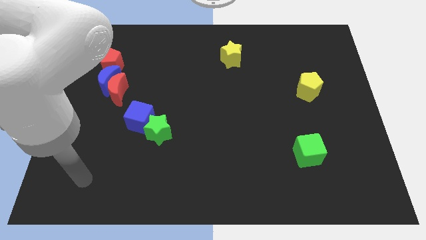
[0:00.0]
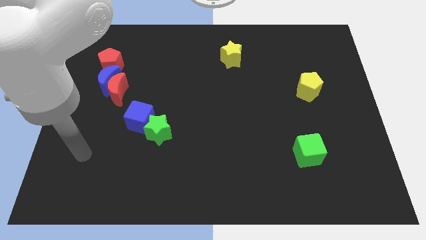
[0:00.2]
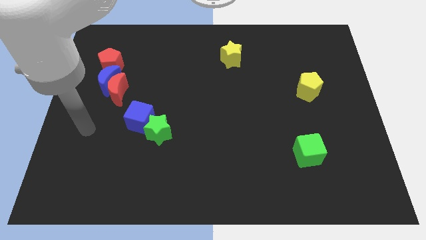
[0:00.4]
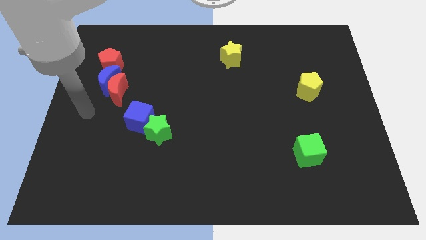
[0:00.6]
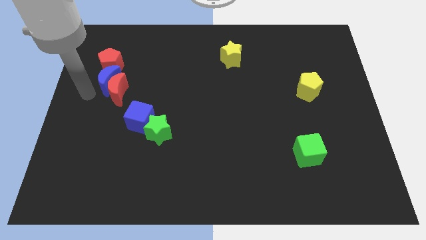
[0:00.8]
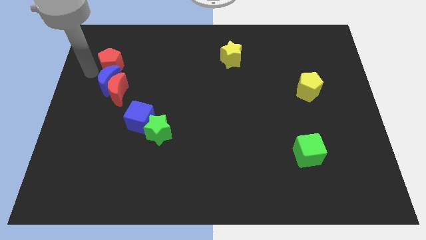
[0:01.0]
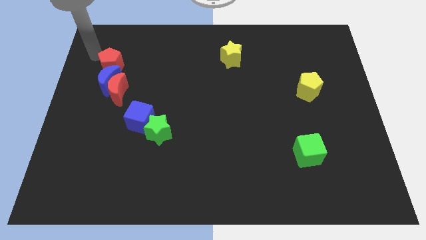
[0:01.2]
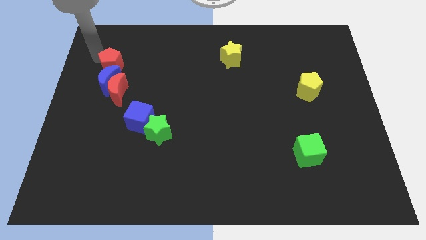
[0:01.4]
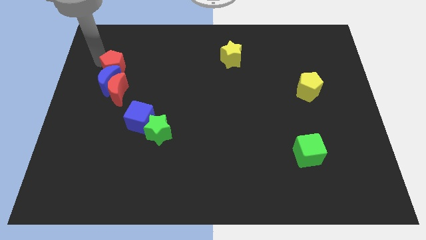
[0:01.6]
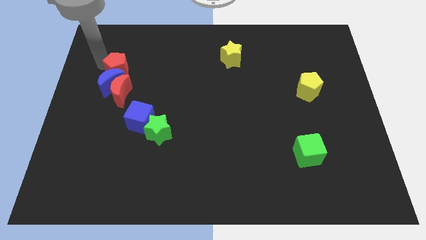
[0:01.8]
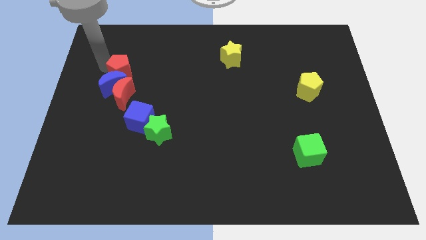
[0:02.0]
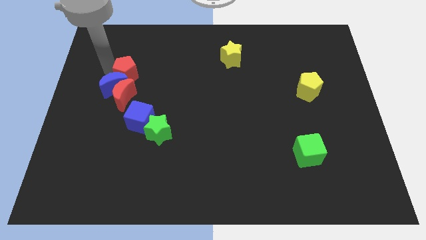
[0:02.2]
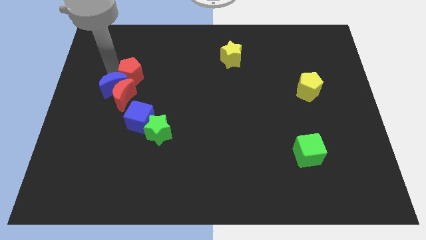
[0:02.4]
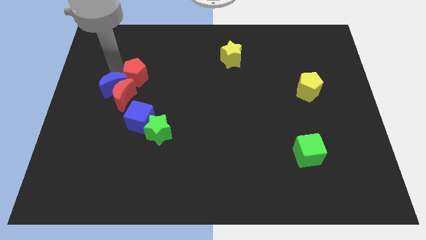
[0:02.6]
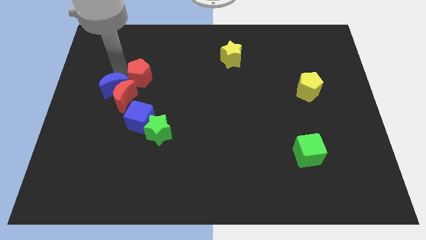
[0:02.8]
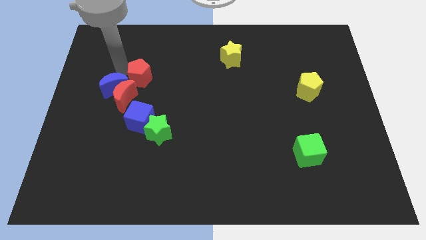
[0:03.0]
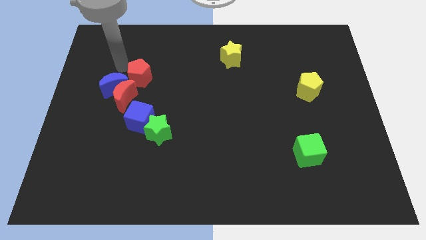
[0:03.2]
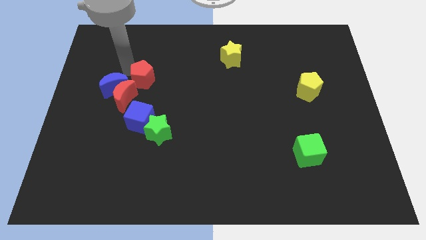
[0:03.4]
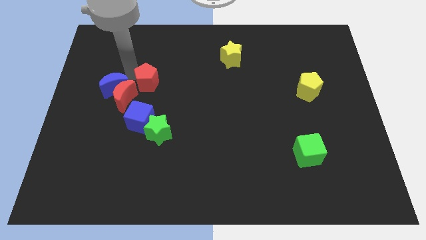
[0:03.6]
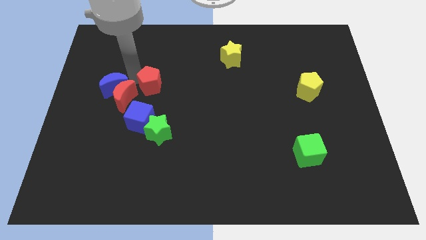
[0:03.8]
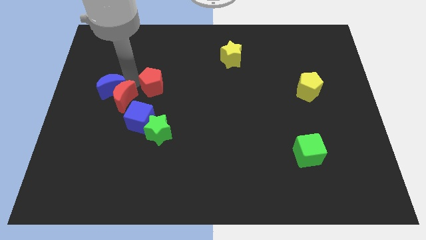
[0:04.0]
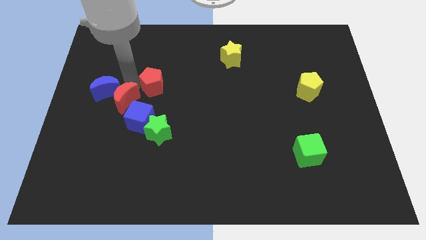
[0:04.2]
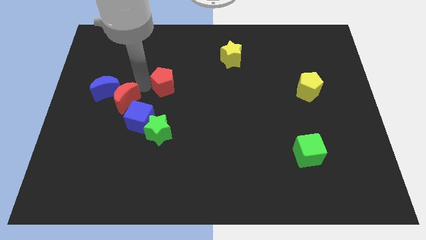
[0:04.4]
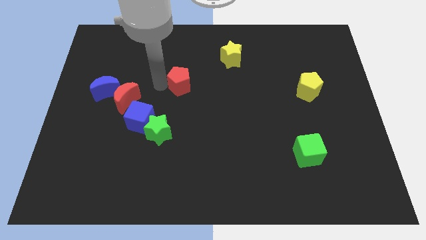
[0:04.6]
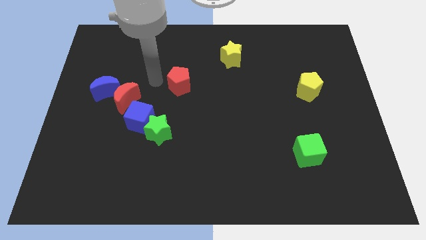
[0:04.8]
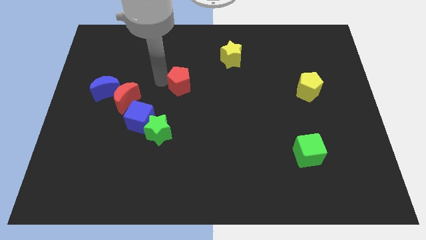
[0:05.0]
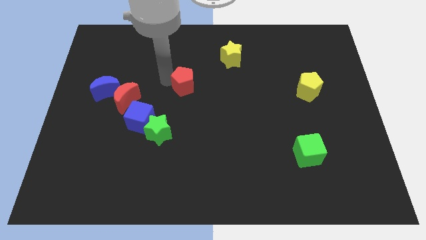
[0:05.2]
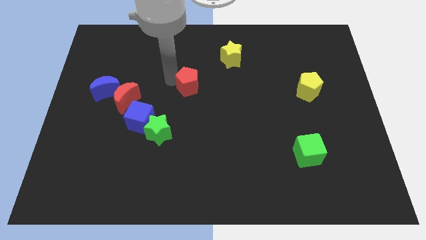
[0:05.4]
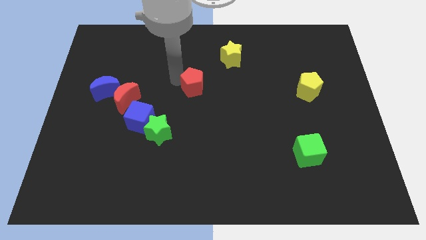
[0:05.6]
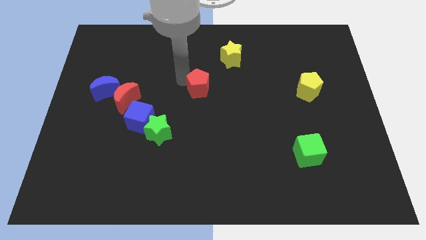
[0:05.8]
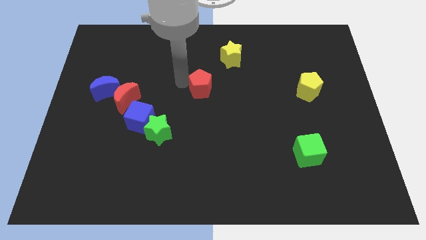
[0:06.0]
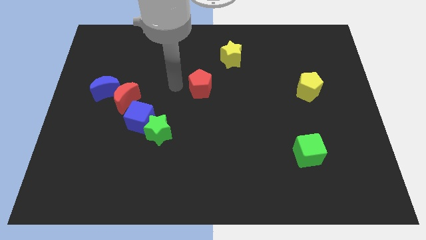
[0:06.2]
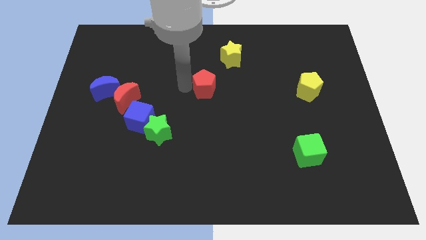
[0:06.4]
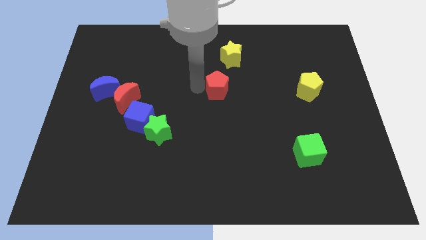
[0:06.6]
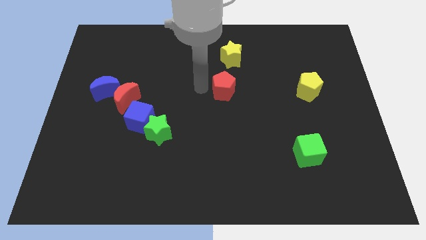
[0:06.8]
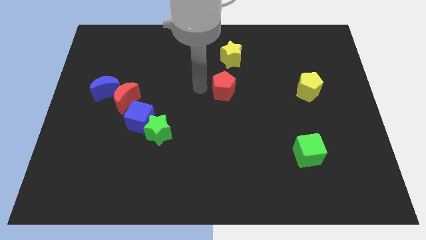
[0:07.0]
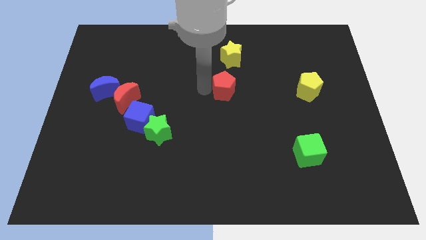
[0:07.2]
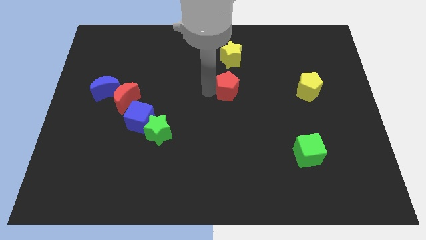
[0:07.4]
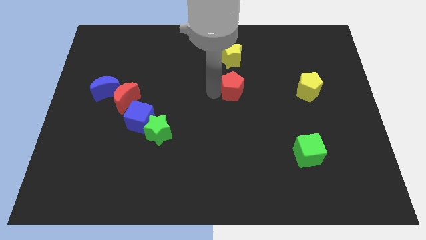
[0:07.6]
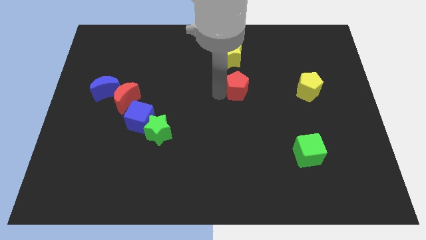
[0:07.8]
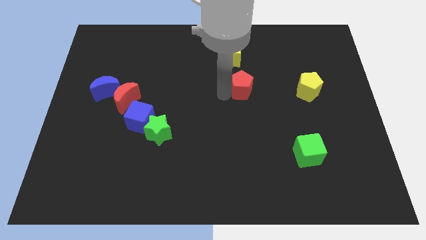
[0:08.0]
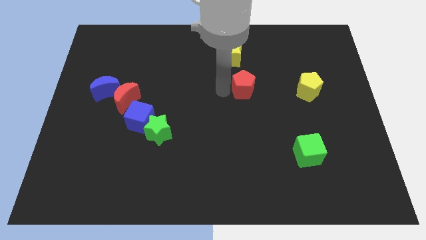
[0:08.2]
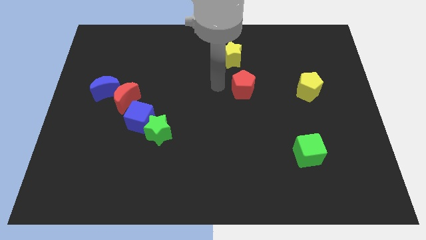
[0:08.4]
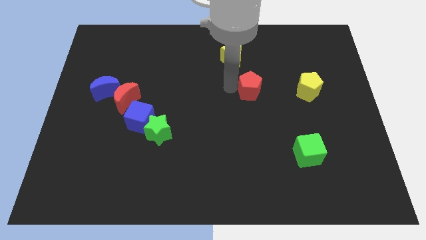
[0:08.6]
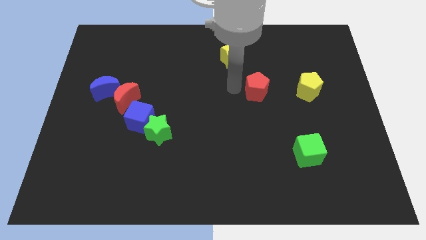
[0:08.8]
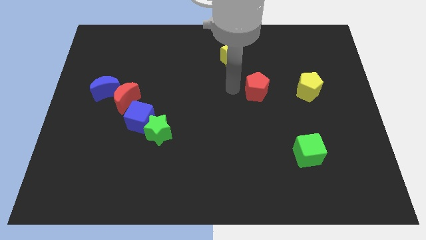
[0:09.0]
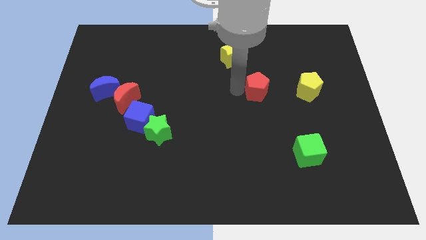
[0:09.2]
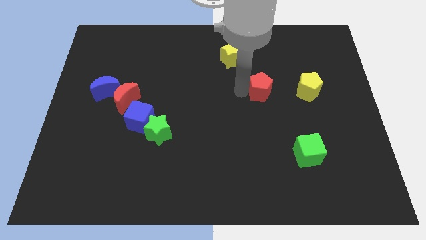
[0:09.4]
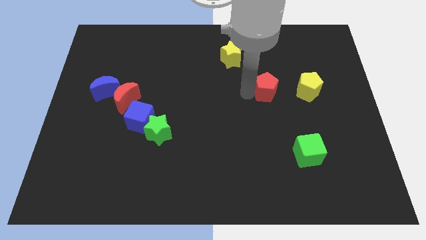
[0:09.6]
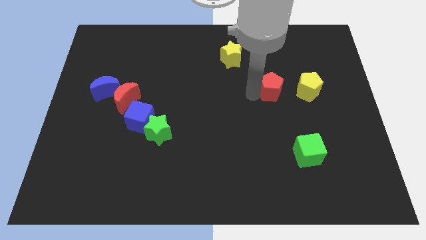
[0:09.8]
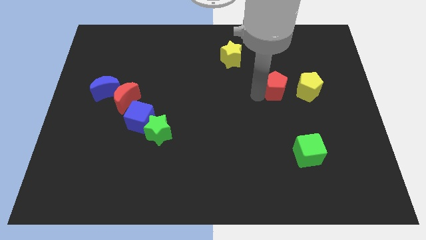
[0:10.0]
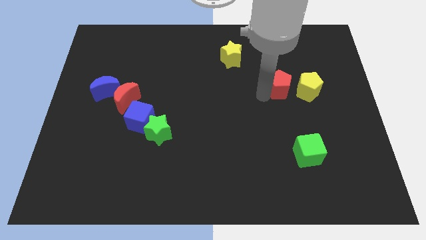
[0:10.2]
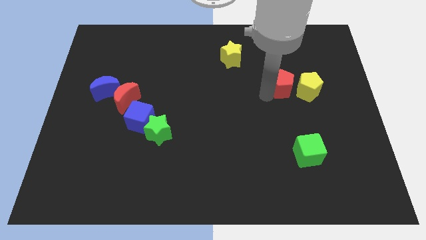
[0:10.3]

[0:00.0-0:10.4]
move the red pentagon close to the yellow pentagon

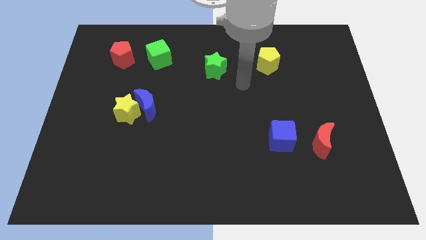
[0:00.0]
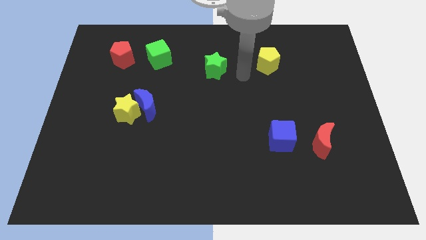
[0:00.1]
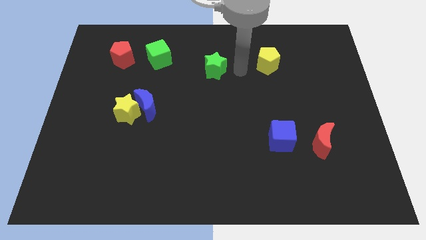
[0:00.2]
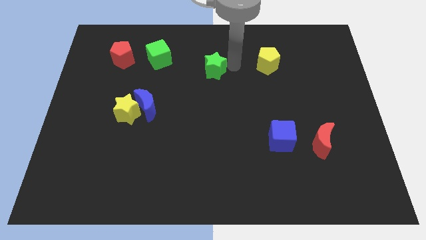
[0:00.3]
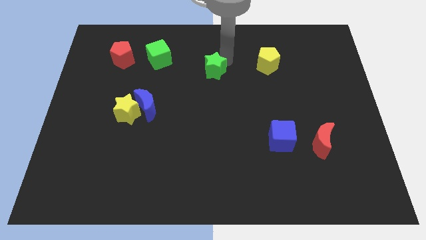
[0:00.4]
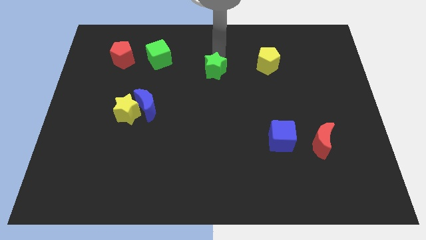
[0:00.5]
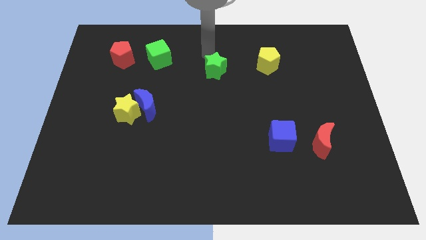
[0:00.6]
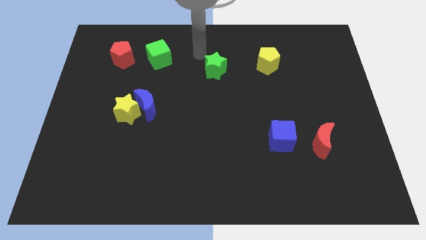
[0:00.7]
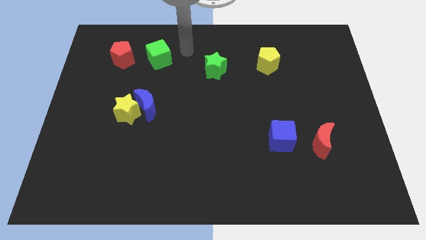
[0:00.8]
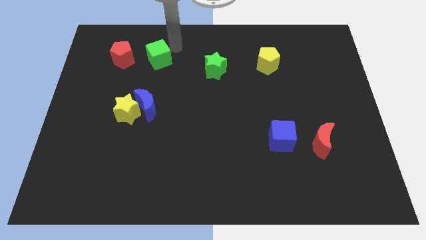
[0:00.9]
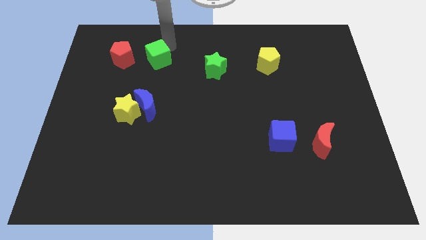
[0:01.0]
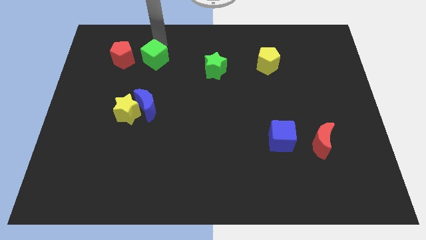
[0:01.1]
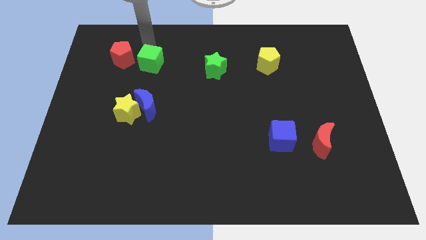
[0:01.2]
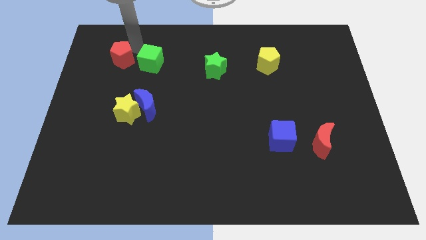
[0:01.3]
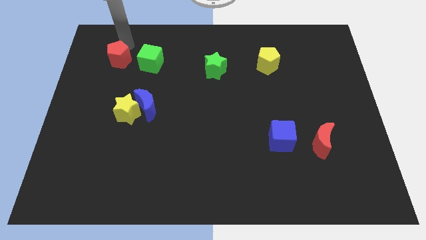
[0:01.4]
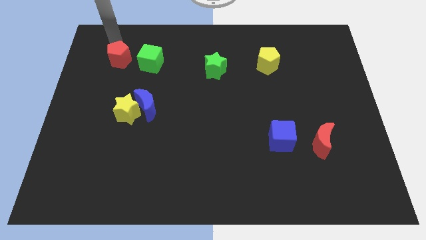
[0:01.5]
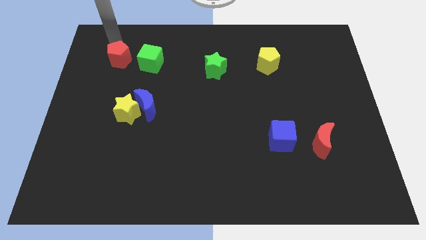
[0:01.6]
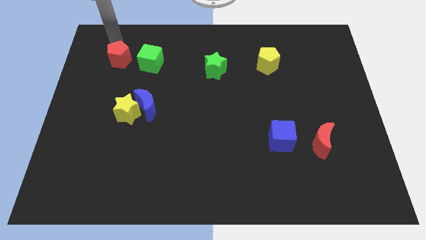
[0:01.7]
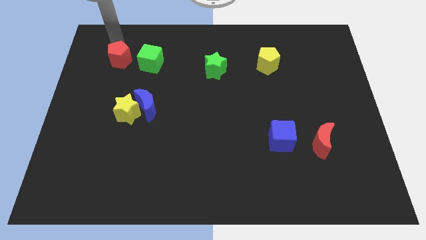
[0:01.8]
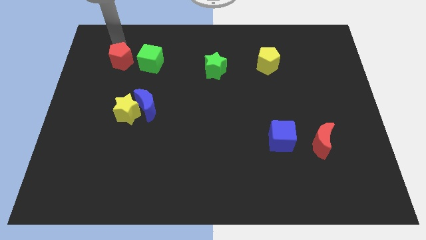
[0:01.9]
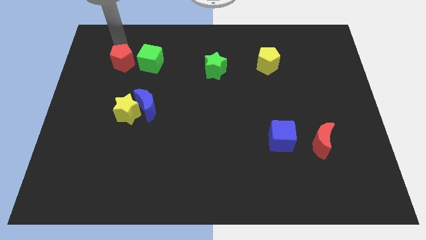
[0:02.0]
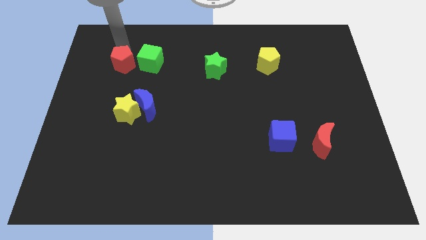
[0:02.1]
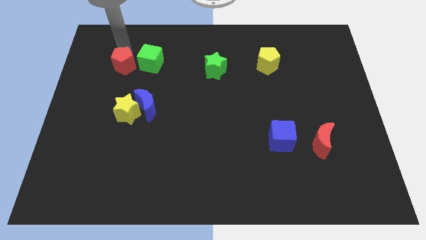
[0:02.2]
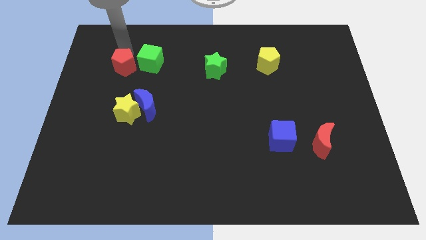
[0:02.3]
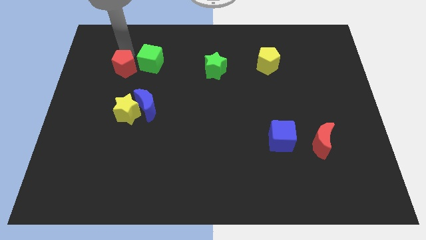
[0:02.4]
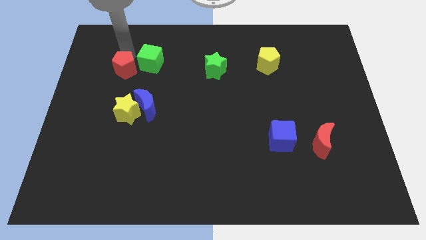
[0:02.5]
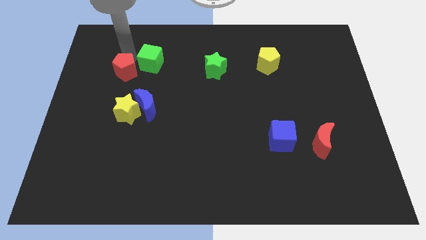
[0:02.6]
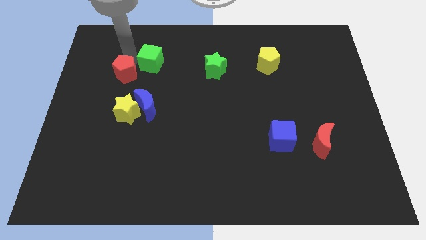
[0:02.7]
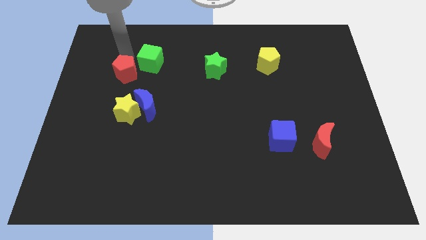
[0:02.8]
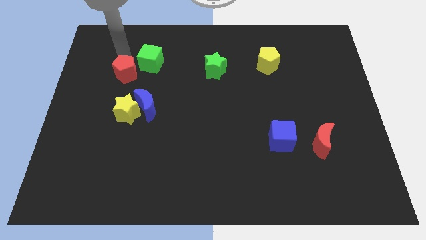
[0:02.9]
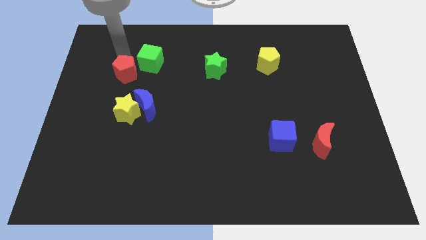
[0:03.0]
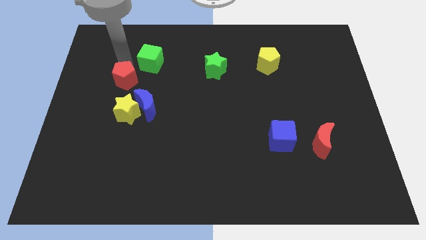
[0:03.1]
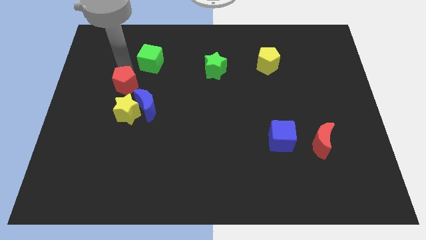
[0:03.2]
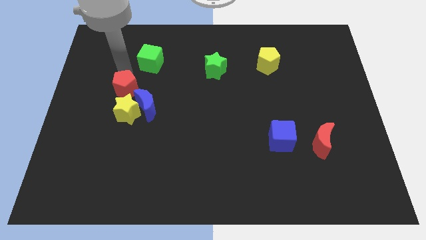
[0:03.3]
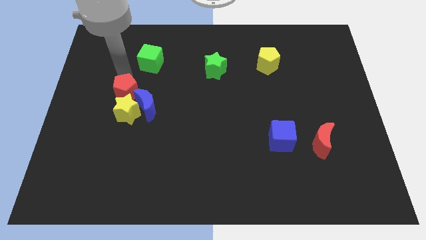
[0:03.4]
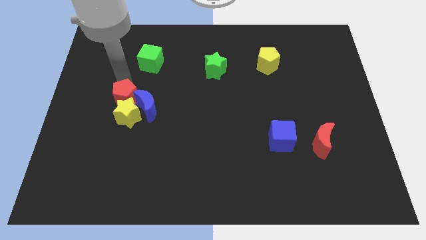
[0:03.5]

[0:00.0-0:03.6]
put the red pentagon next to the blue moon
